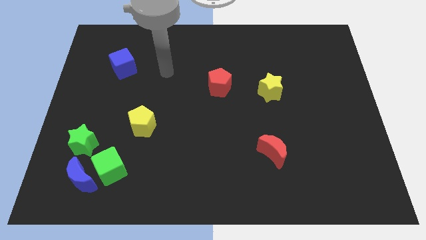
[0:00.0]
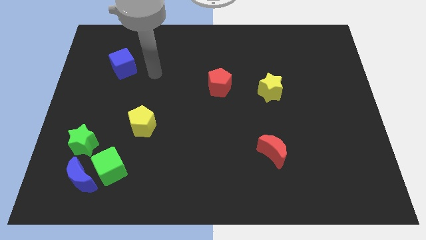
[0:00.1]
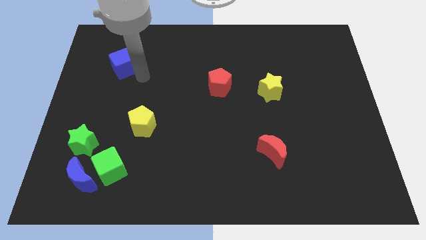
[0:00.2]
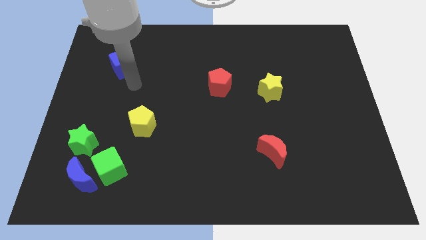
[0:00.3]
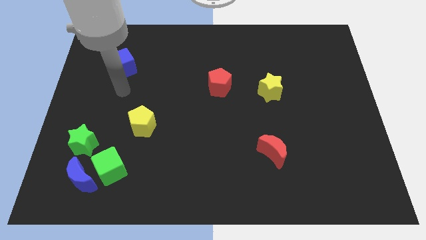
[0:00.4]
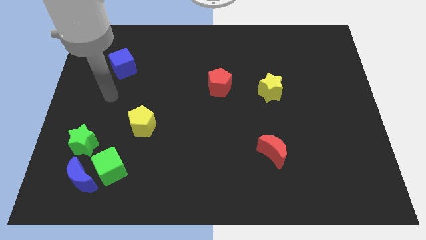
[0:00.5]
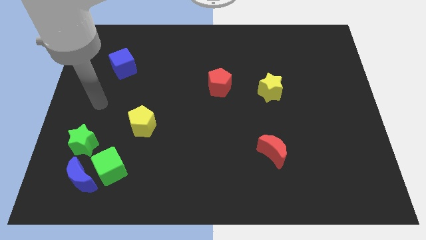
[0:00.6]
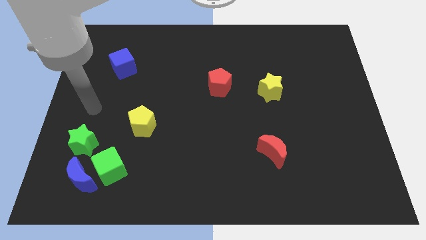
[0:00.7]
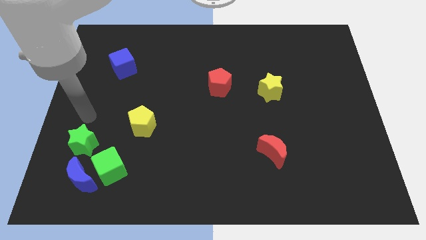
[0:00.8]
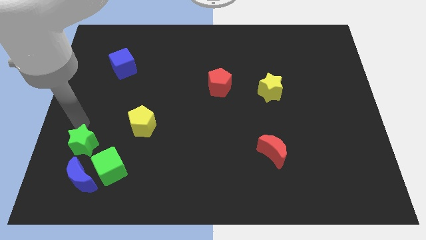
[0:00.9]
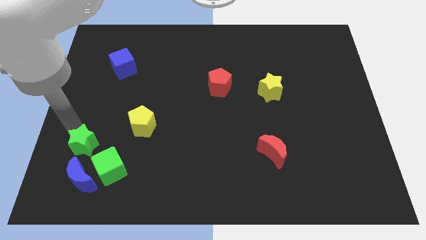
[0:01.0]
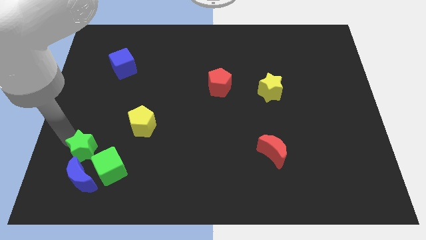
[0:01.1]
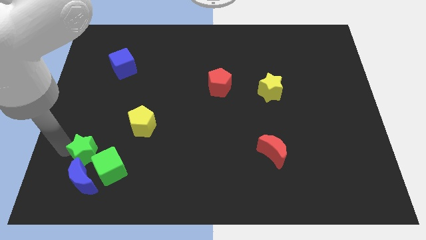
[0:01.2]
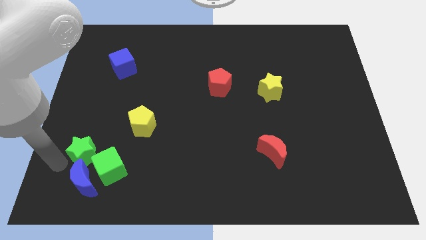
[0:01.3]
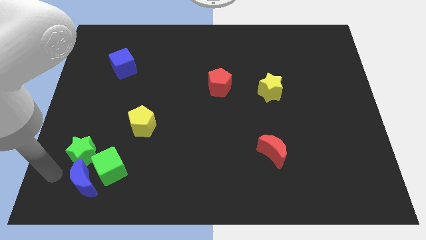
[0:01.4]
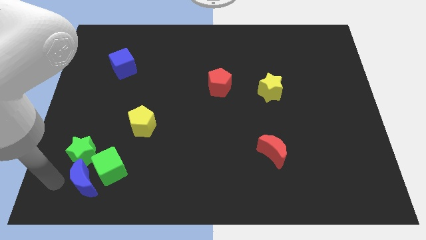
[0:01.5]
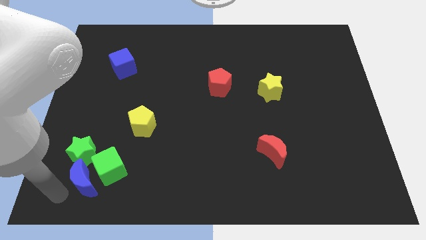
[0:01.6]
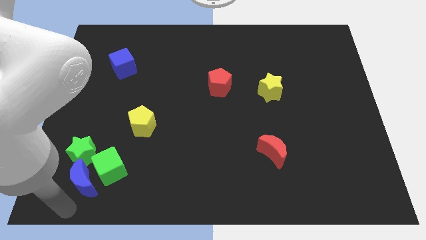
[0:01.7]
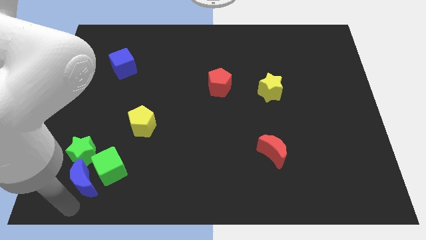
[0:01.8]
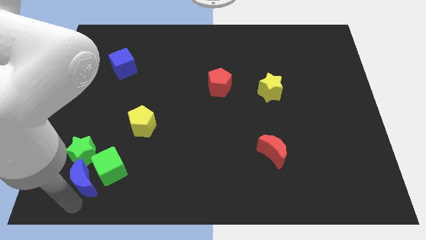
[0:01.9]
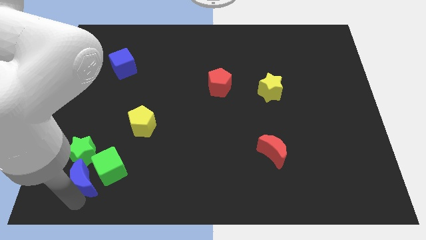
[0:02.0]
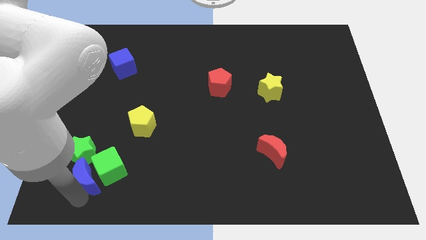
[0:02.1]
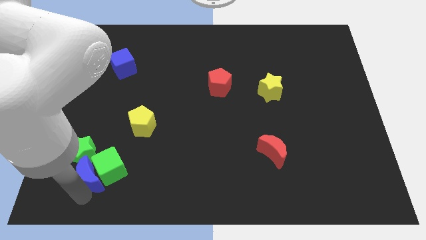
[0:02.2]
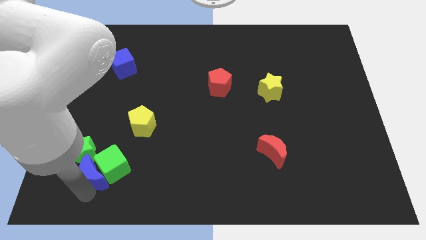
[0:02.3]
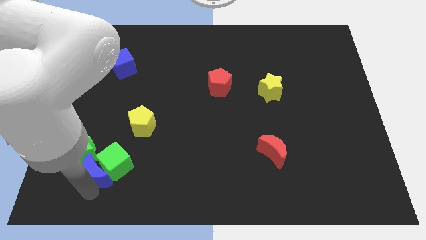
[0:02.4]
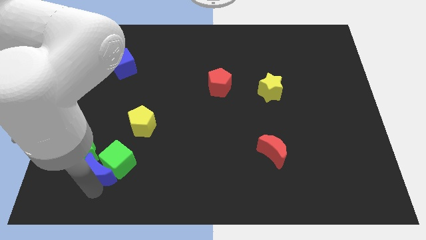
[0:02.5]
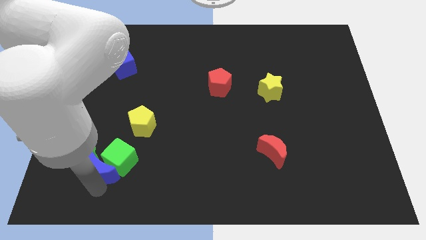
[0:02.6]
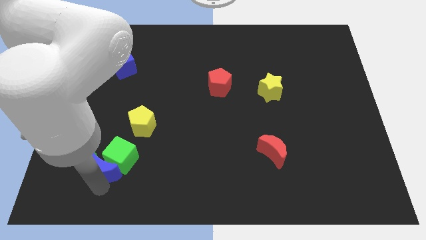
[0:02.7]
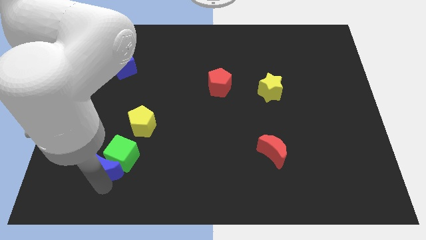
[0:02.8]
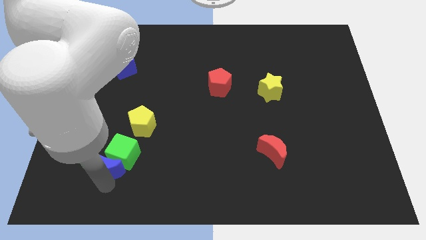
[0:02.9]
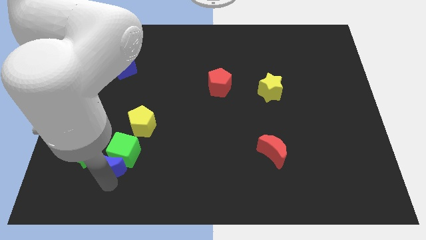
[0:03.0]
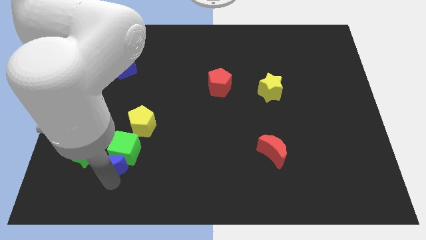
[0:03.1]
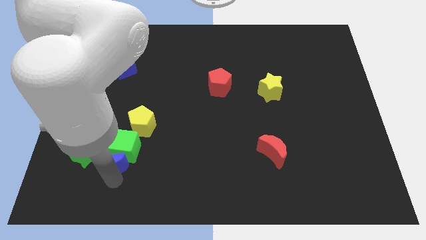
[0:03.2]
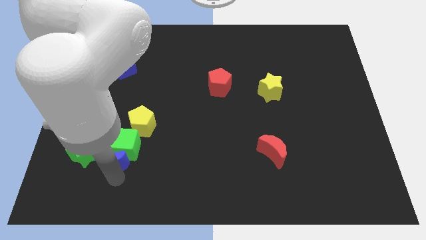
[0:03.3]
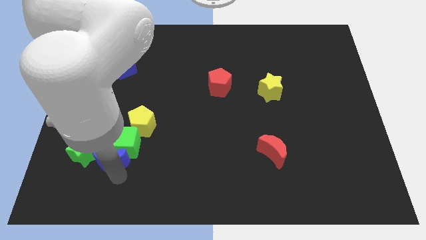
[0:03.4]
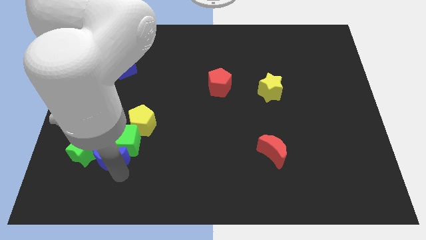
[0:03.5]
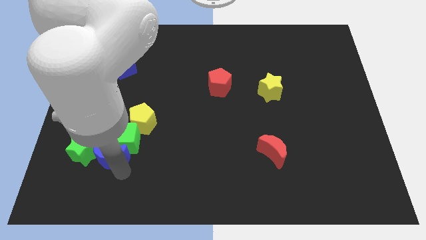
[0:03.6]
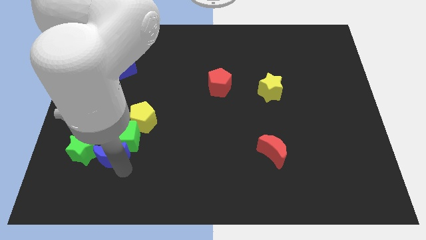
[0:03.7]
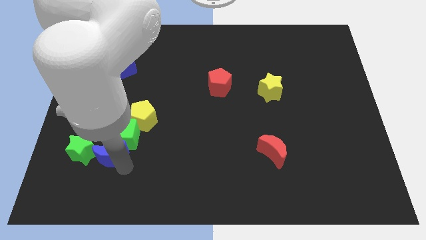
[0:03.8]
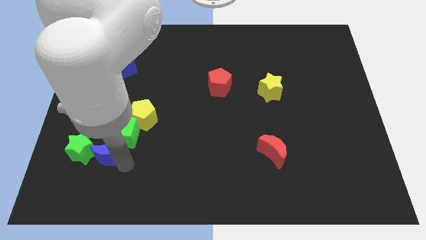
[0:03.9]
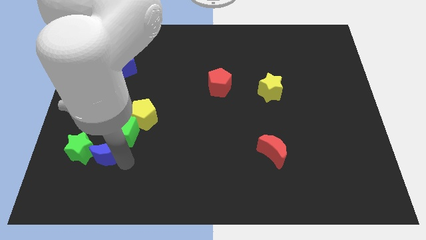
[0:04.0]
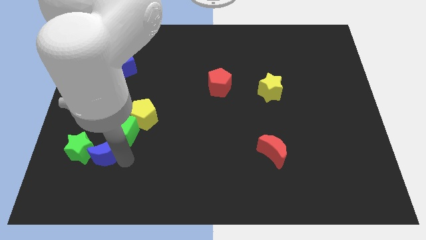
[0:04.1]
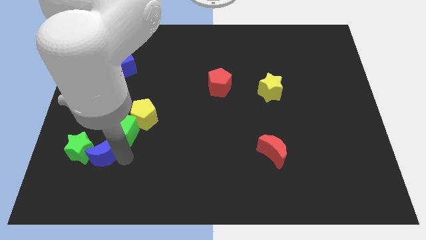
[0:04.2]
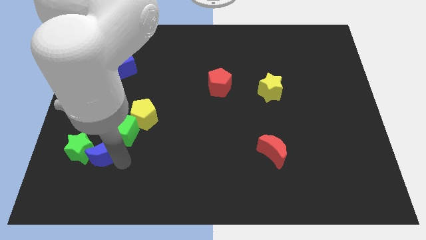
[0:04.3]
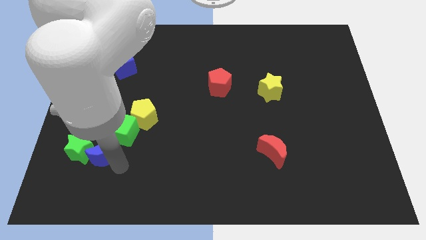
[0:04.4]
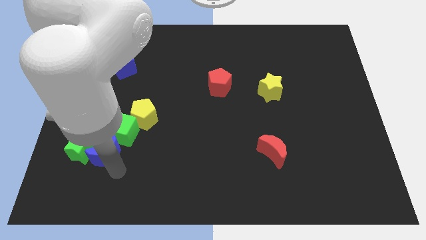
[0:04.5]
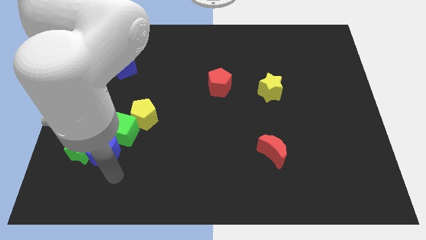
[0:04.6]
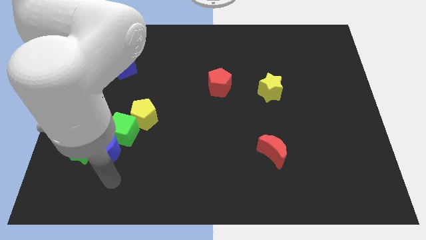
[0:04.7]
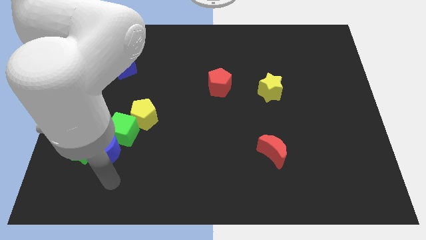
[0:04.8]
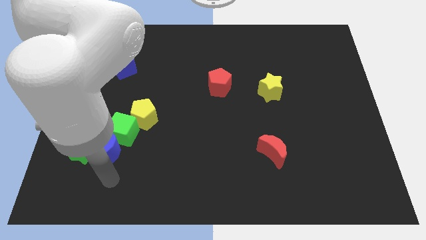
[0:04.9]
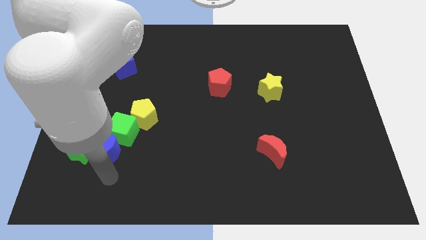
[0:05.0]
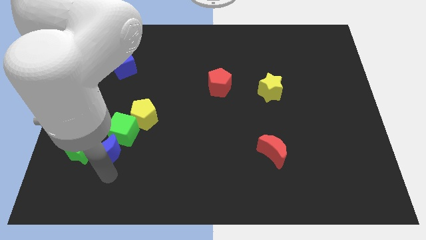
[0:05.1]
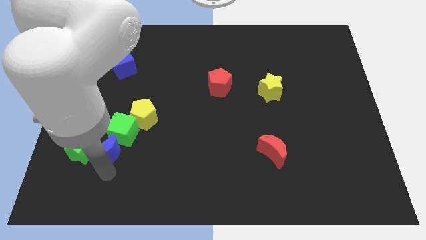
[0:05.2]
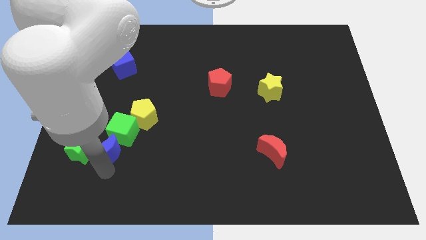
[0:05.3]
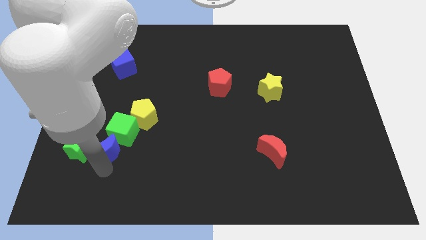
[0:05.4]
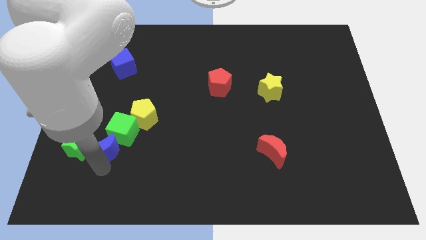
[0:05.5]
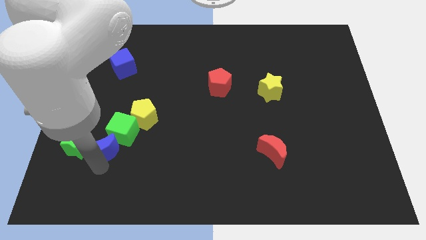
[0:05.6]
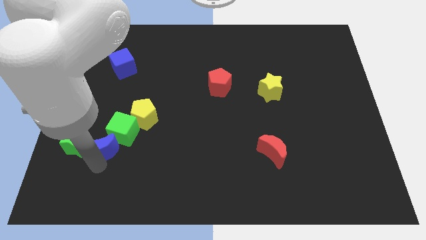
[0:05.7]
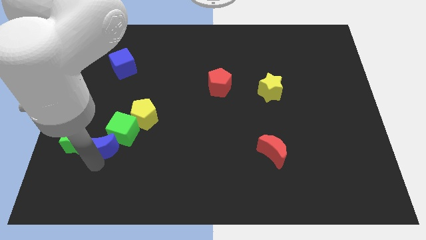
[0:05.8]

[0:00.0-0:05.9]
move the blue moon somewhat upwards

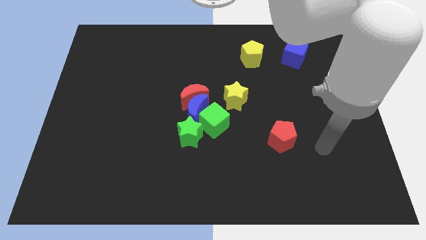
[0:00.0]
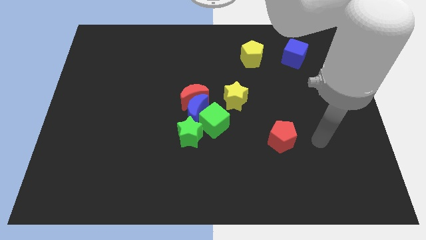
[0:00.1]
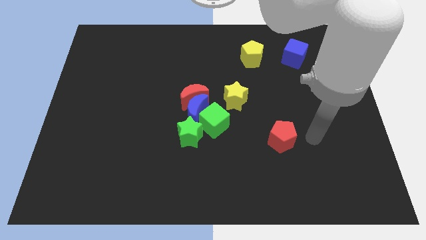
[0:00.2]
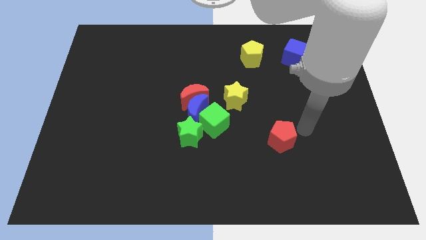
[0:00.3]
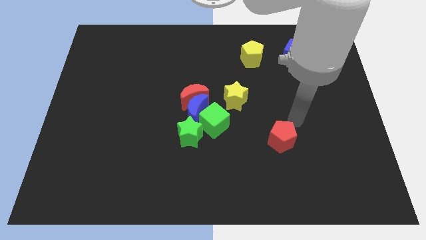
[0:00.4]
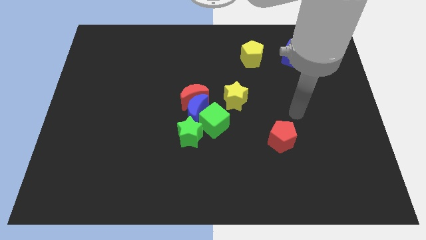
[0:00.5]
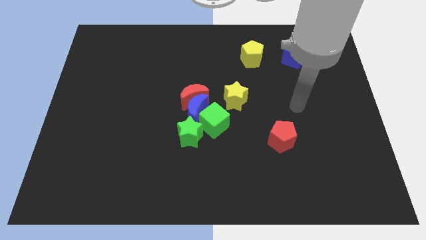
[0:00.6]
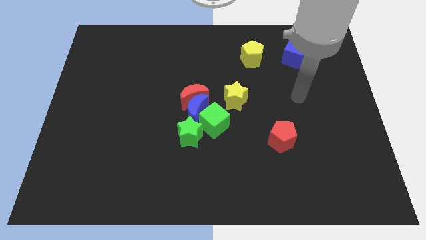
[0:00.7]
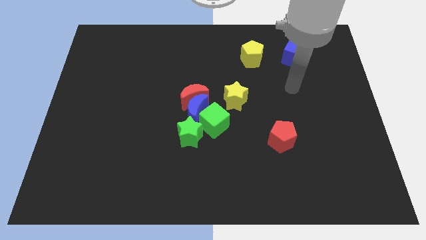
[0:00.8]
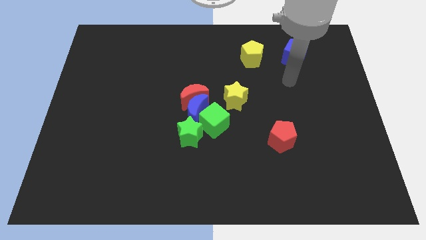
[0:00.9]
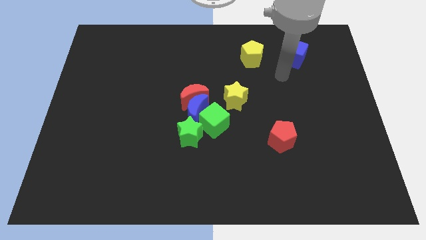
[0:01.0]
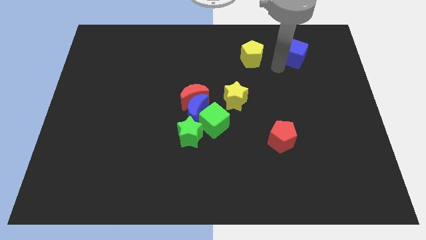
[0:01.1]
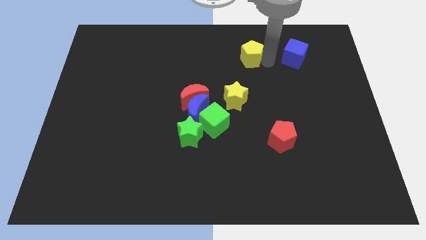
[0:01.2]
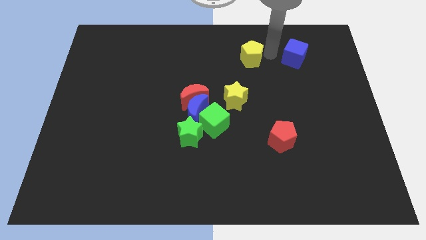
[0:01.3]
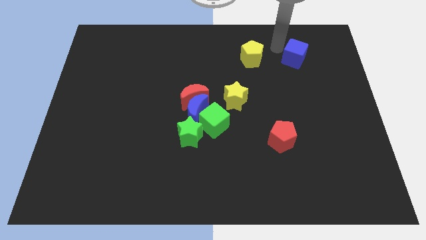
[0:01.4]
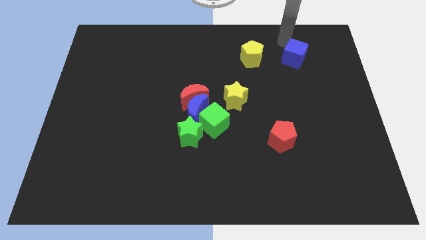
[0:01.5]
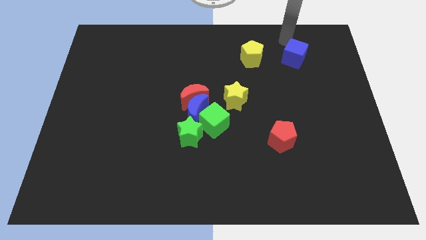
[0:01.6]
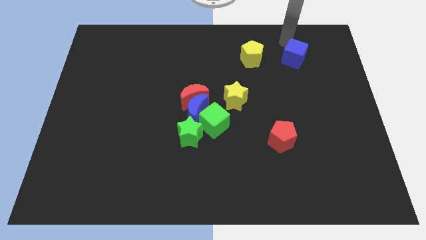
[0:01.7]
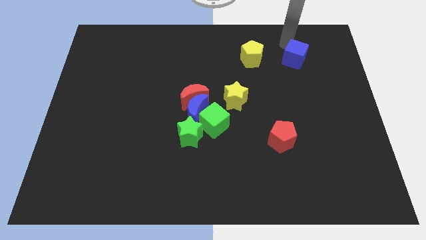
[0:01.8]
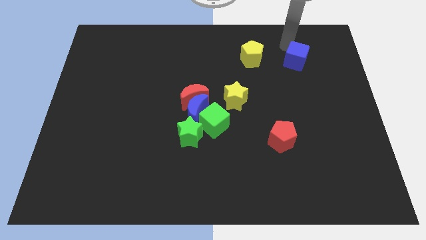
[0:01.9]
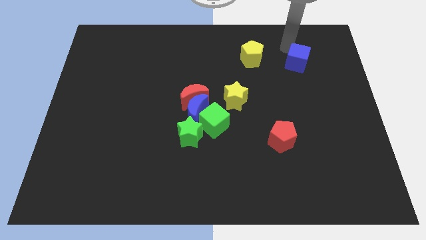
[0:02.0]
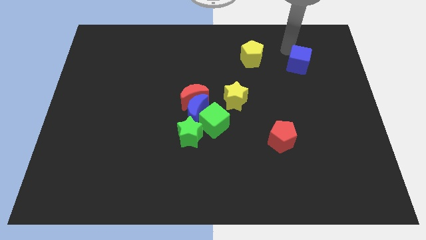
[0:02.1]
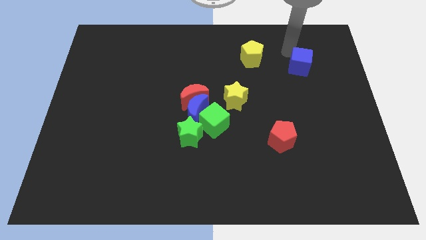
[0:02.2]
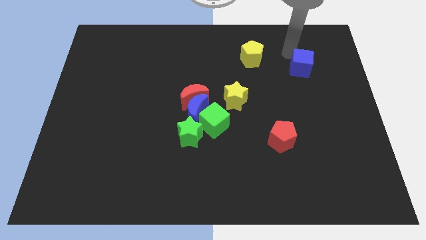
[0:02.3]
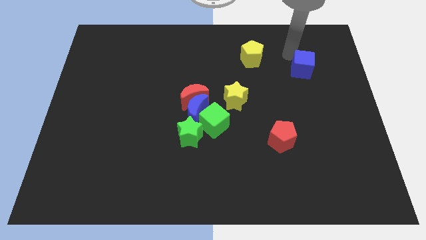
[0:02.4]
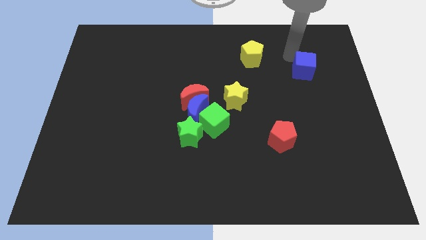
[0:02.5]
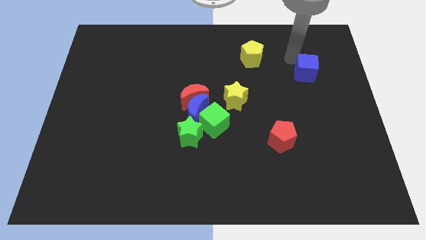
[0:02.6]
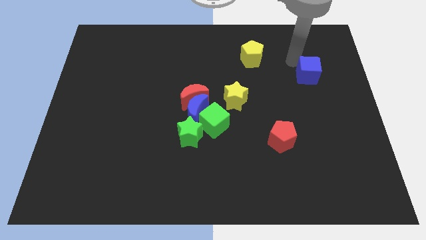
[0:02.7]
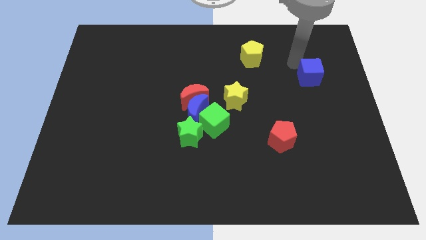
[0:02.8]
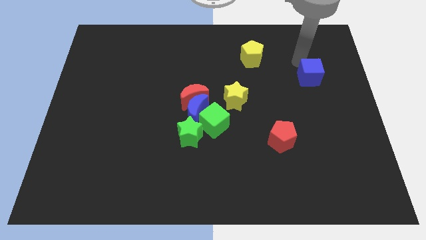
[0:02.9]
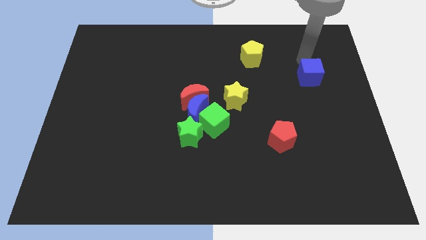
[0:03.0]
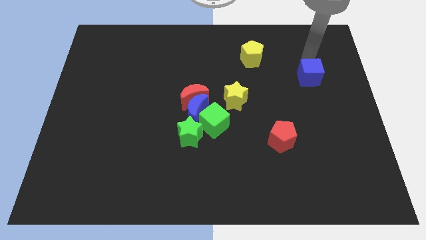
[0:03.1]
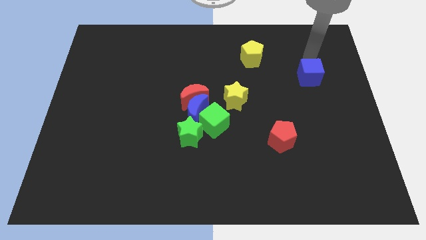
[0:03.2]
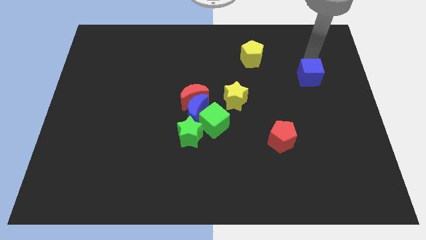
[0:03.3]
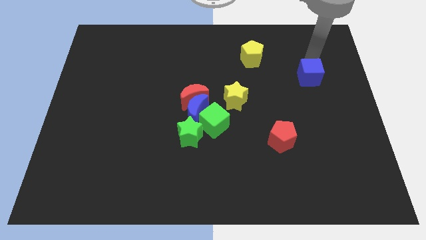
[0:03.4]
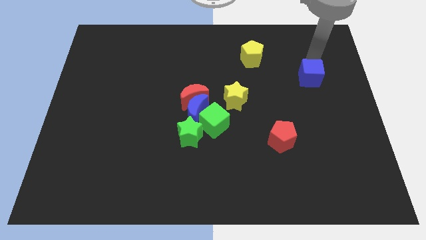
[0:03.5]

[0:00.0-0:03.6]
slightly move the blue cube downwards
